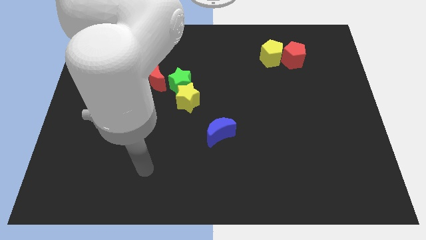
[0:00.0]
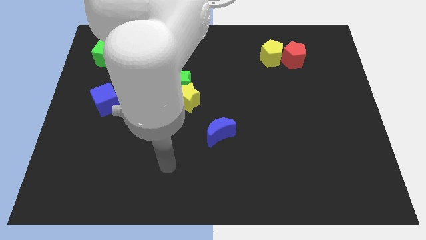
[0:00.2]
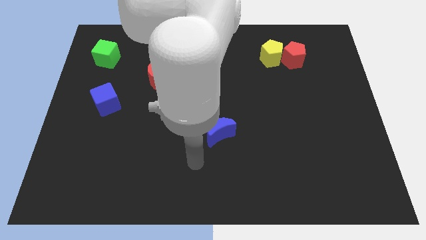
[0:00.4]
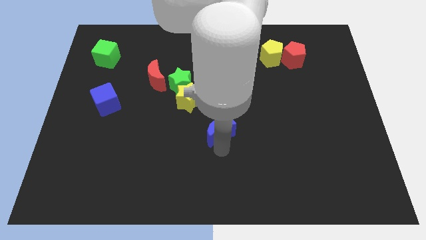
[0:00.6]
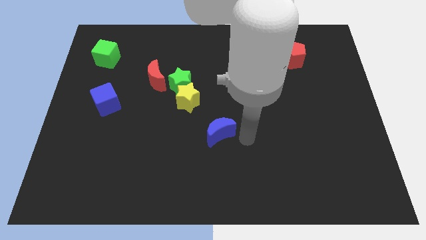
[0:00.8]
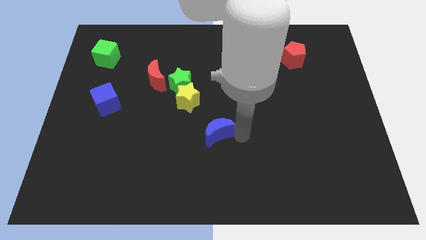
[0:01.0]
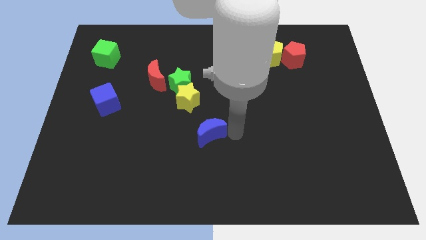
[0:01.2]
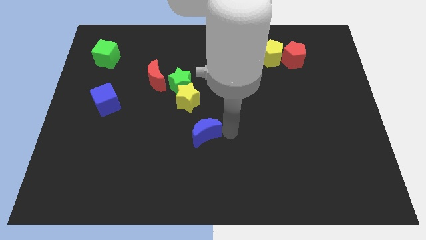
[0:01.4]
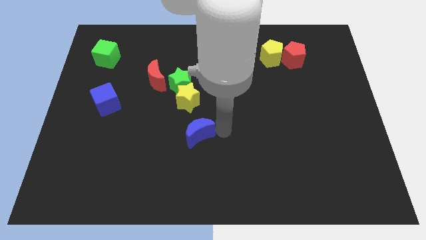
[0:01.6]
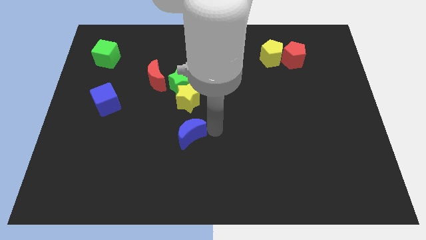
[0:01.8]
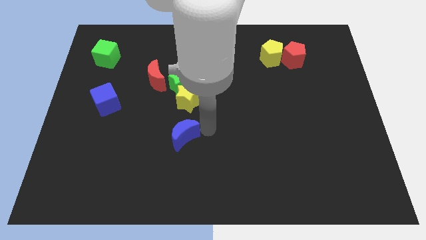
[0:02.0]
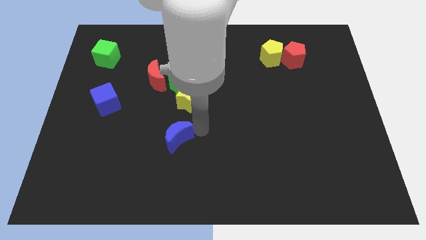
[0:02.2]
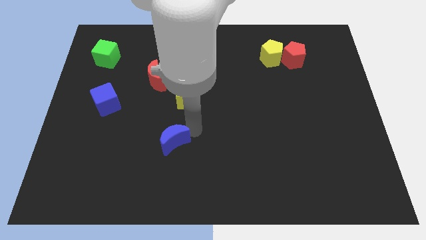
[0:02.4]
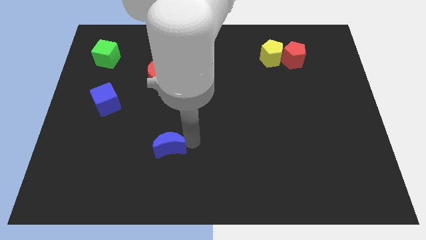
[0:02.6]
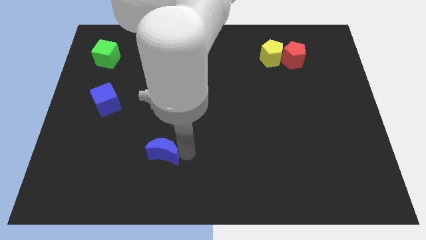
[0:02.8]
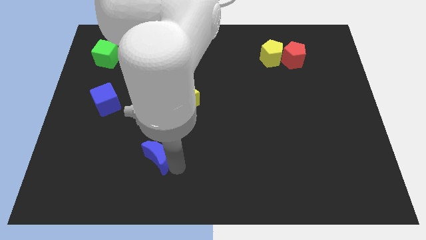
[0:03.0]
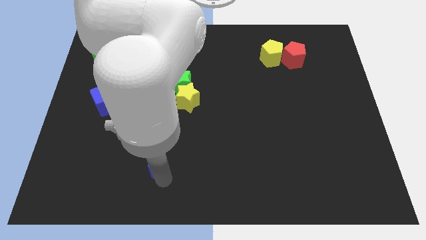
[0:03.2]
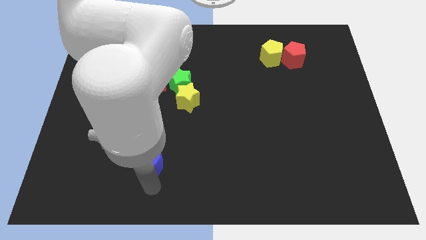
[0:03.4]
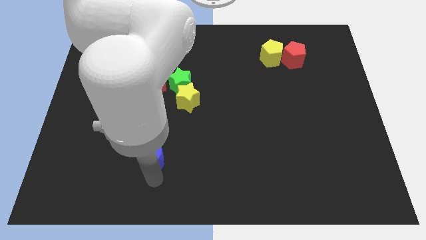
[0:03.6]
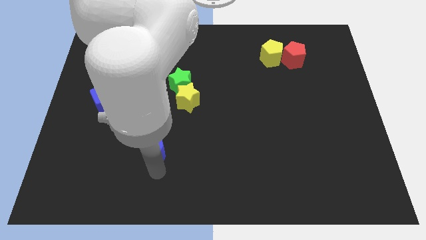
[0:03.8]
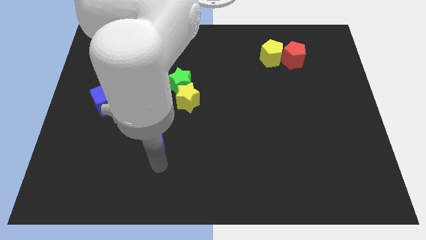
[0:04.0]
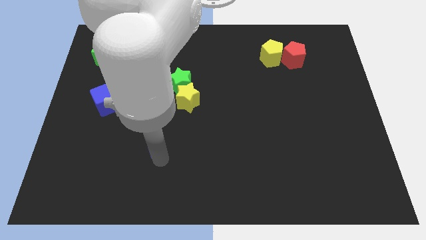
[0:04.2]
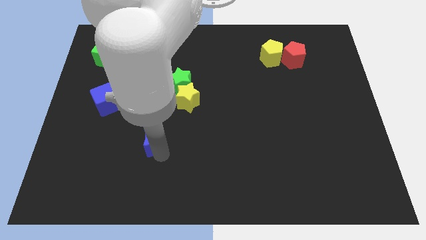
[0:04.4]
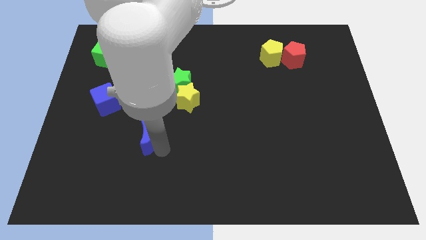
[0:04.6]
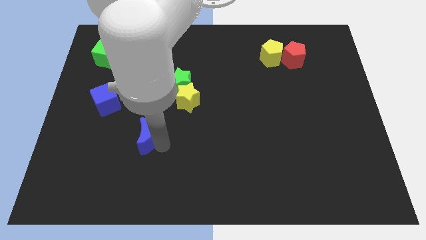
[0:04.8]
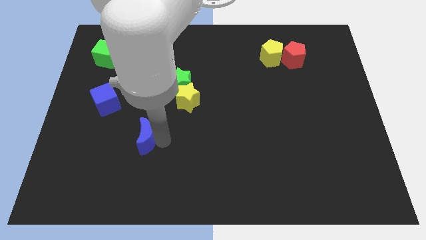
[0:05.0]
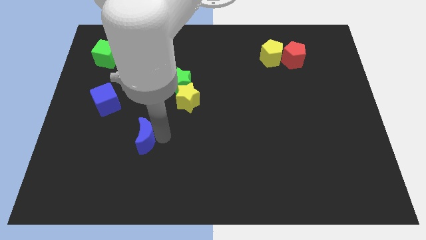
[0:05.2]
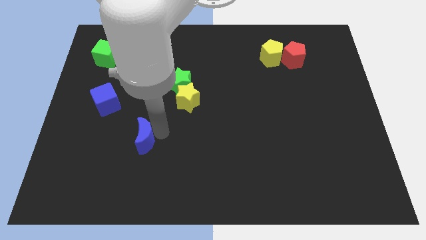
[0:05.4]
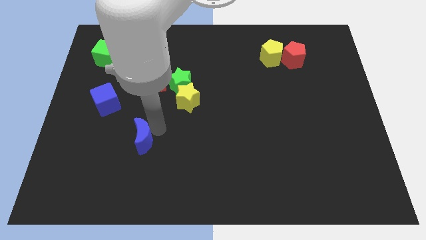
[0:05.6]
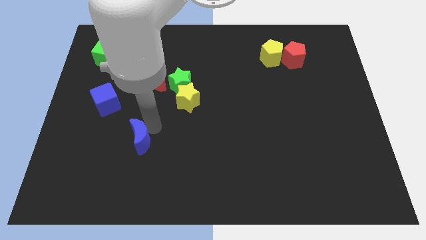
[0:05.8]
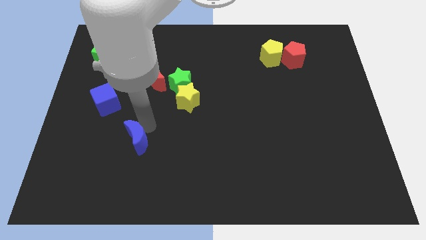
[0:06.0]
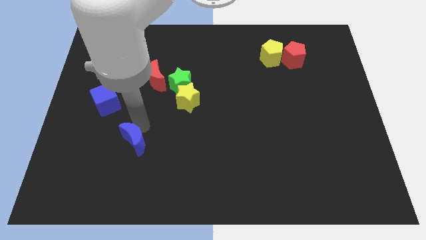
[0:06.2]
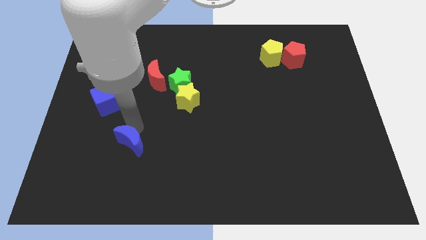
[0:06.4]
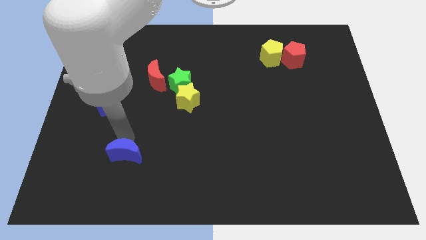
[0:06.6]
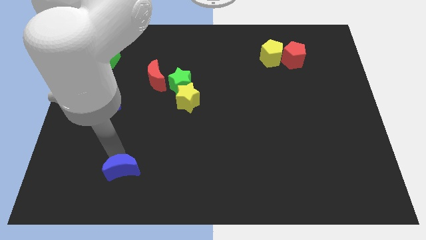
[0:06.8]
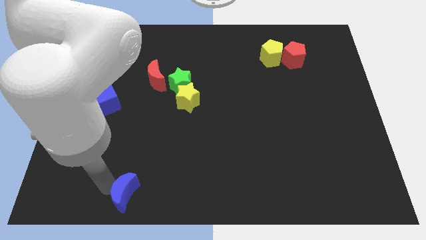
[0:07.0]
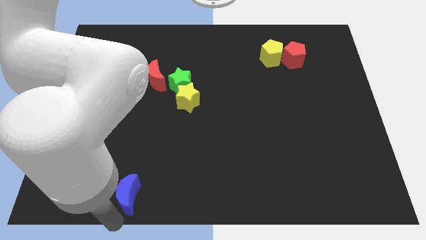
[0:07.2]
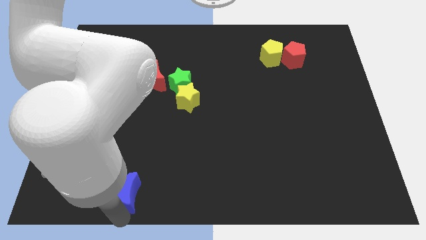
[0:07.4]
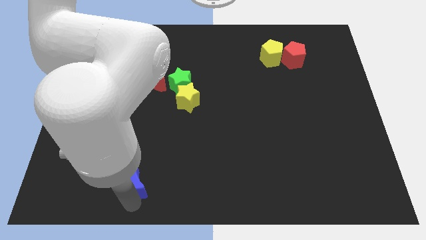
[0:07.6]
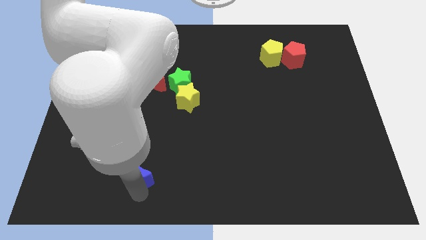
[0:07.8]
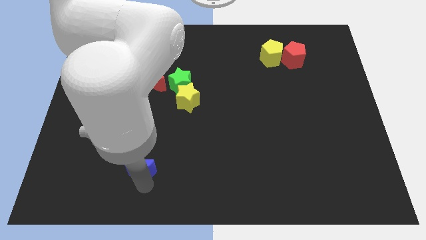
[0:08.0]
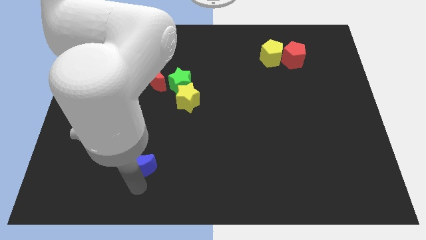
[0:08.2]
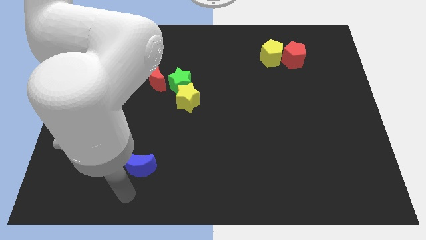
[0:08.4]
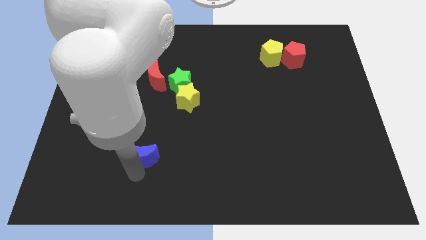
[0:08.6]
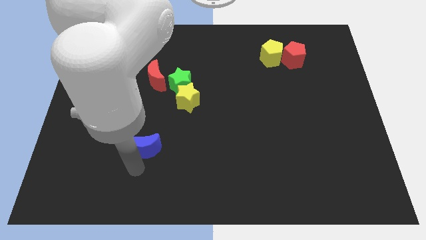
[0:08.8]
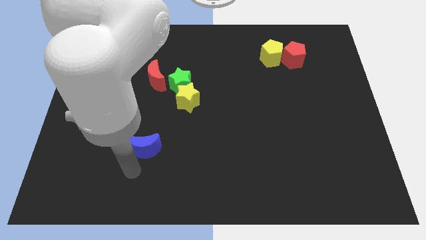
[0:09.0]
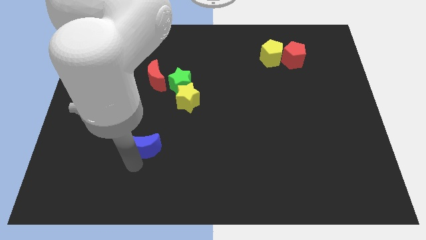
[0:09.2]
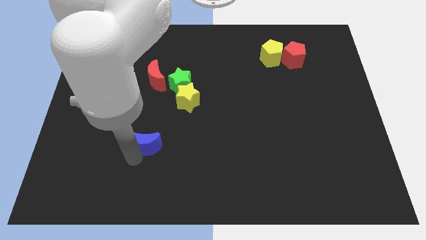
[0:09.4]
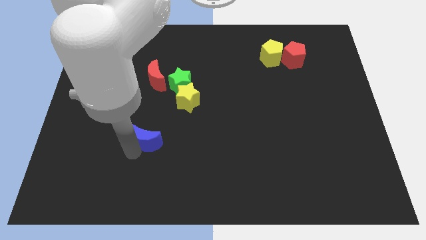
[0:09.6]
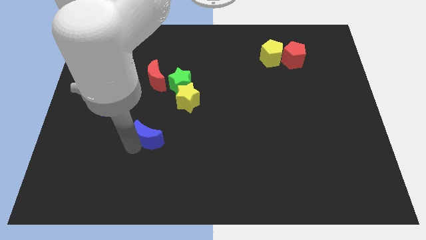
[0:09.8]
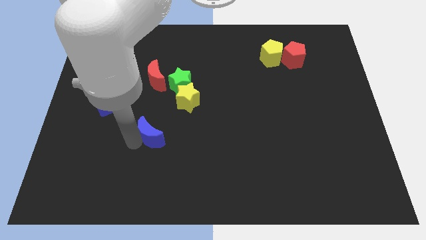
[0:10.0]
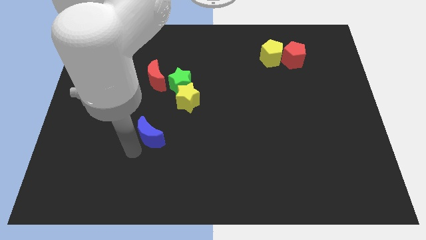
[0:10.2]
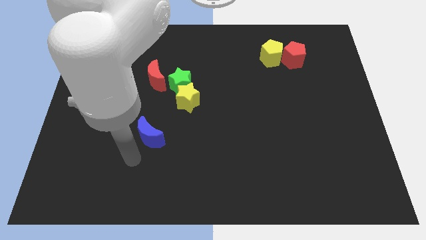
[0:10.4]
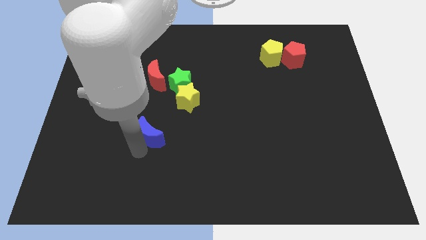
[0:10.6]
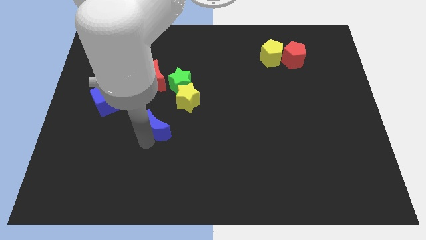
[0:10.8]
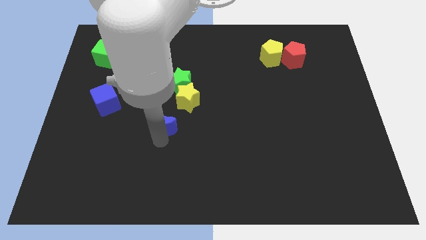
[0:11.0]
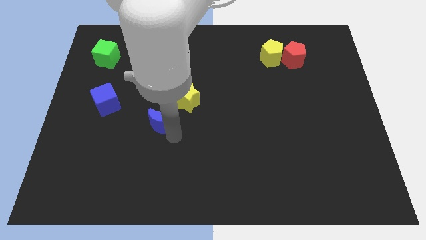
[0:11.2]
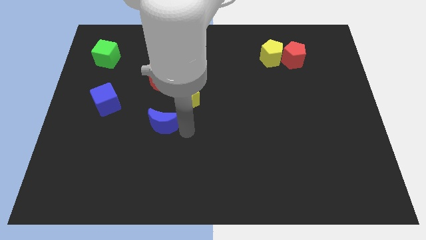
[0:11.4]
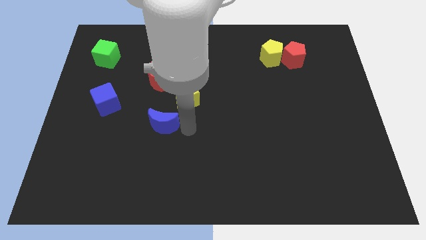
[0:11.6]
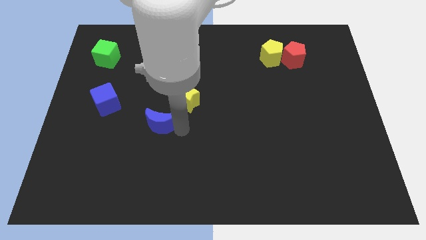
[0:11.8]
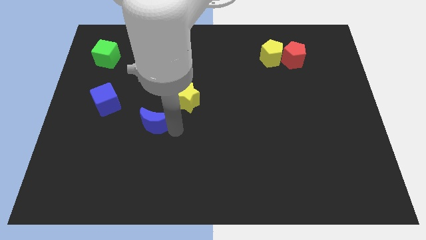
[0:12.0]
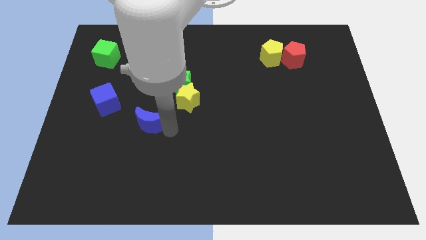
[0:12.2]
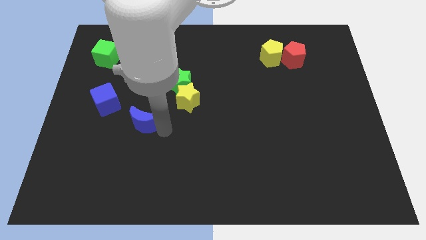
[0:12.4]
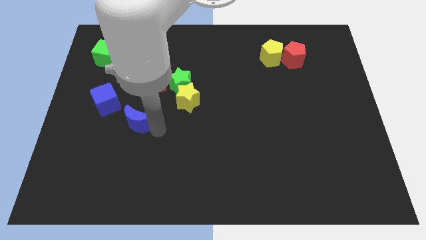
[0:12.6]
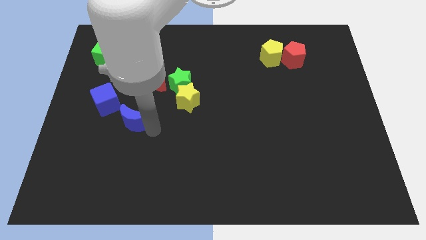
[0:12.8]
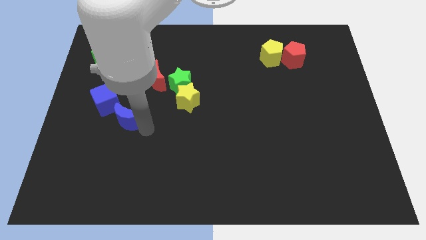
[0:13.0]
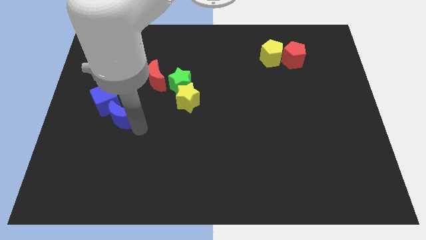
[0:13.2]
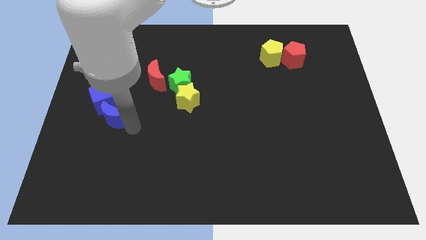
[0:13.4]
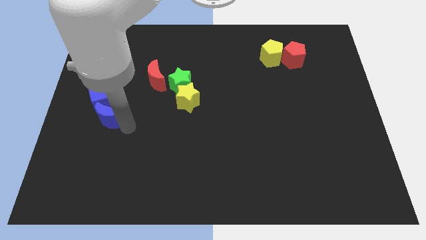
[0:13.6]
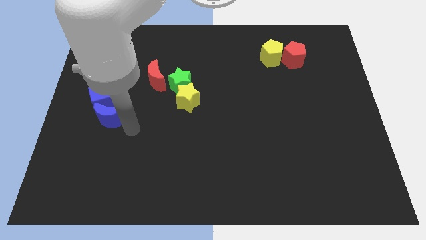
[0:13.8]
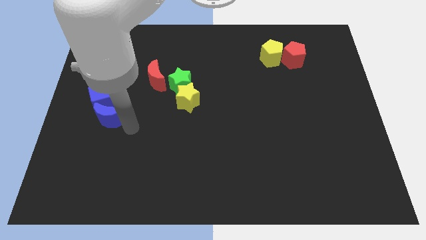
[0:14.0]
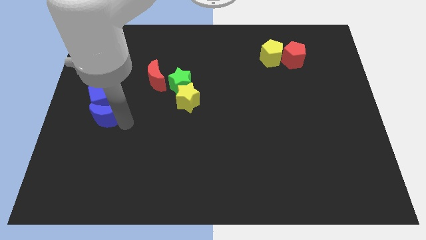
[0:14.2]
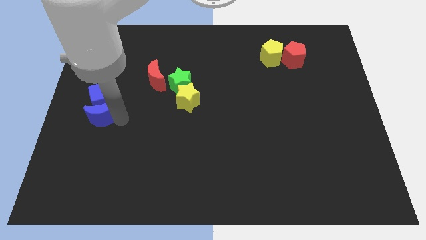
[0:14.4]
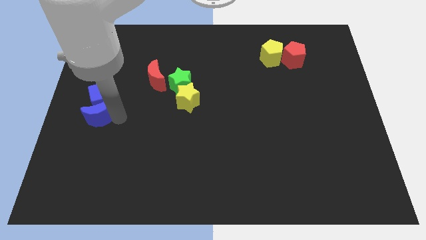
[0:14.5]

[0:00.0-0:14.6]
move the blue moon to the left side of the board
